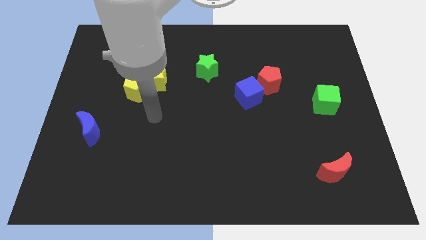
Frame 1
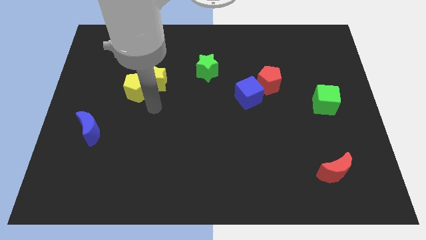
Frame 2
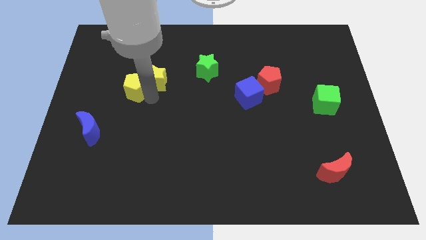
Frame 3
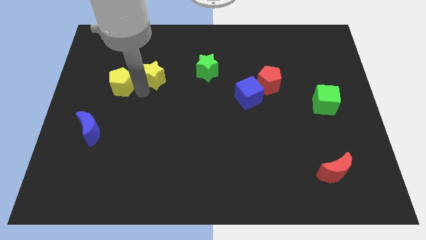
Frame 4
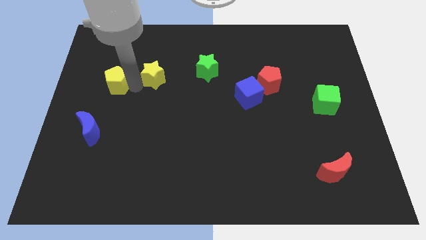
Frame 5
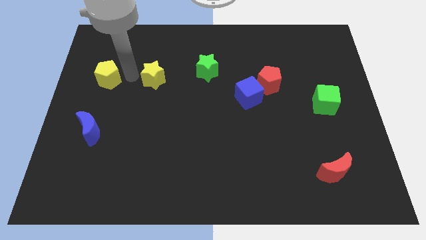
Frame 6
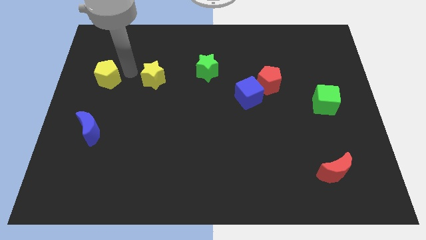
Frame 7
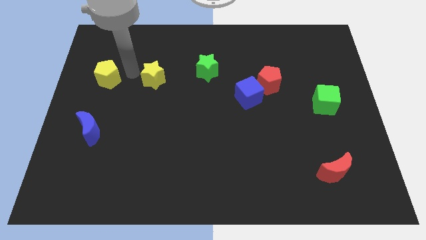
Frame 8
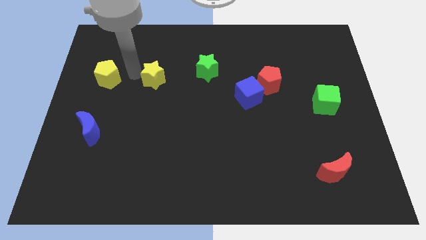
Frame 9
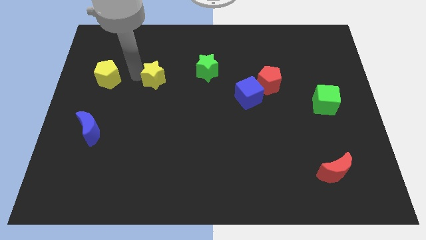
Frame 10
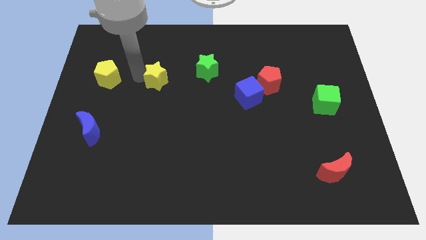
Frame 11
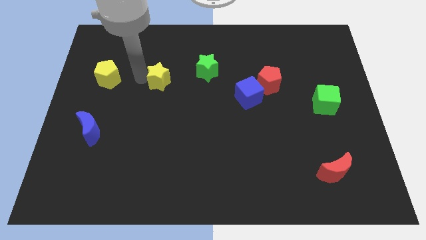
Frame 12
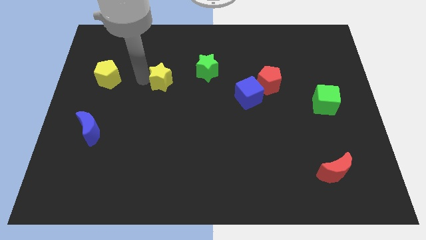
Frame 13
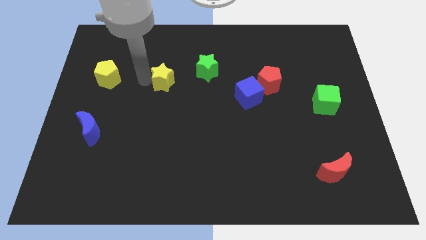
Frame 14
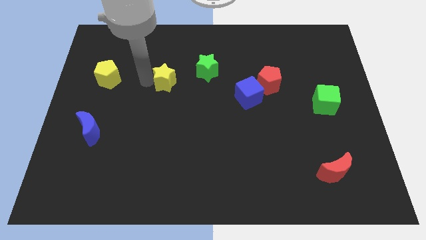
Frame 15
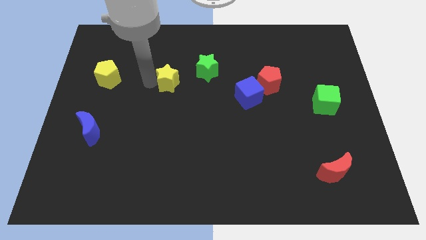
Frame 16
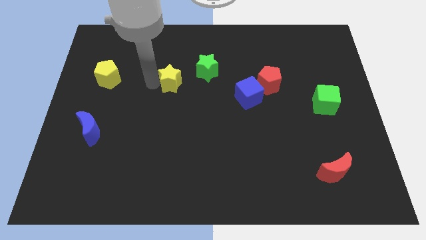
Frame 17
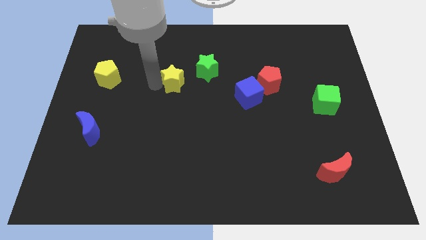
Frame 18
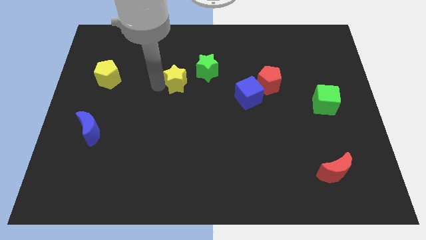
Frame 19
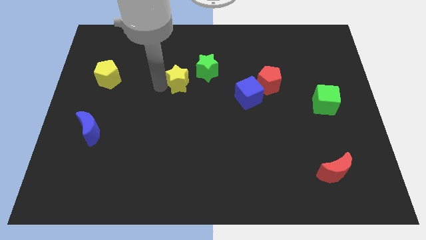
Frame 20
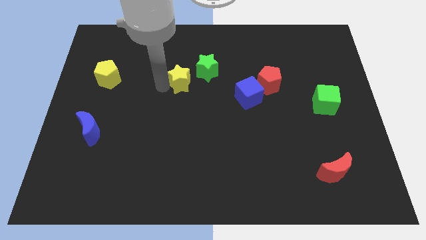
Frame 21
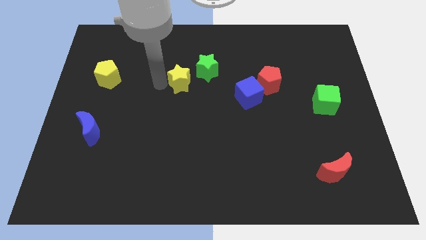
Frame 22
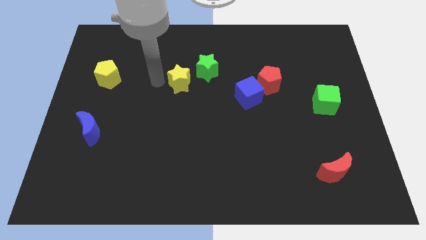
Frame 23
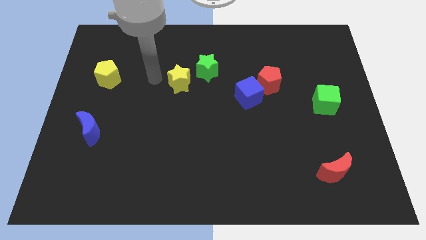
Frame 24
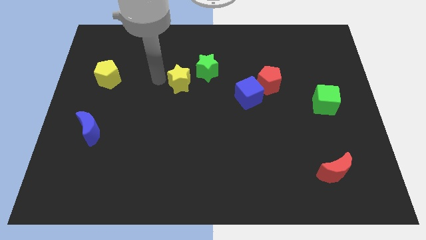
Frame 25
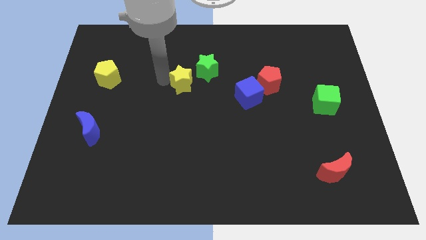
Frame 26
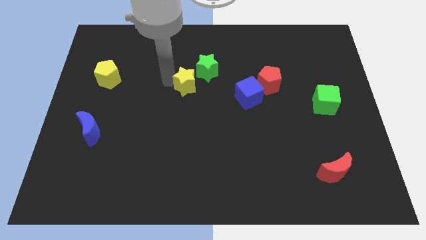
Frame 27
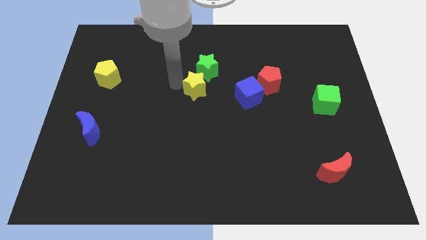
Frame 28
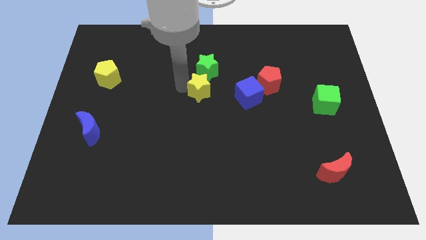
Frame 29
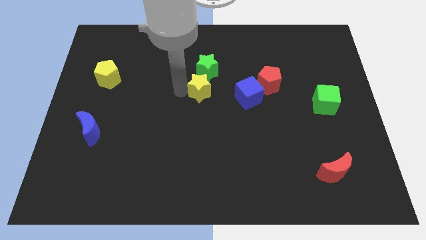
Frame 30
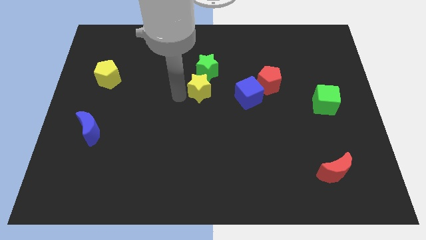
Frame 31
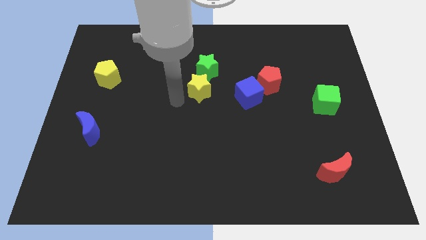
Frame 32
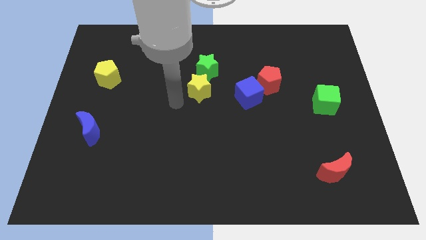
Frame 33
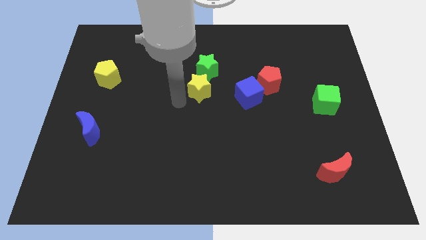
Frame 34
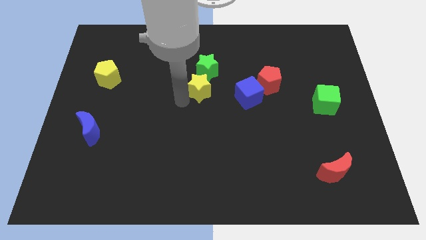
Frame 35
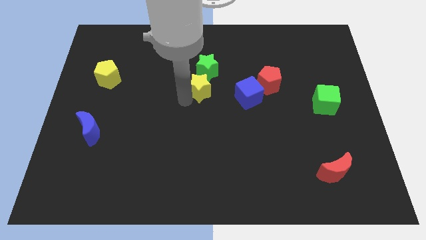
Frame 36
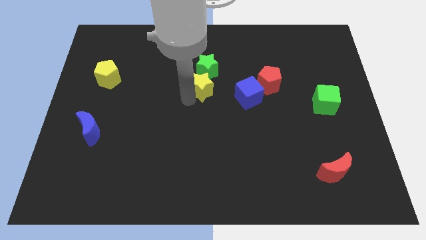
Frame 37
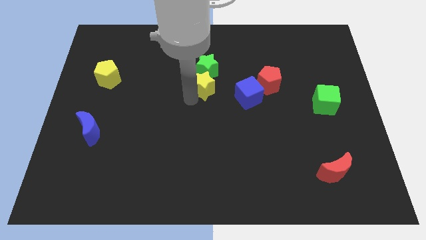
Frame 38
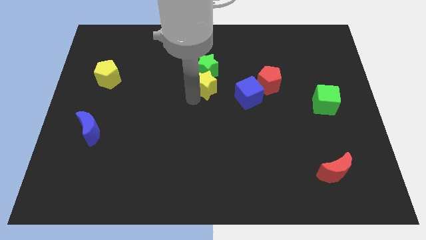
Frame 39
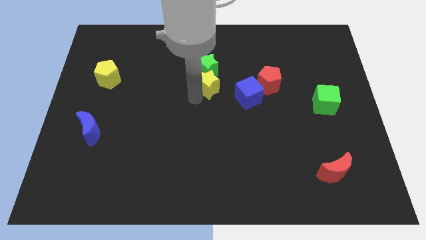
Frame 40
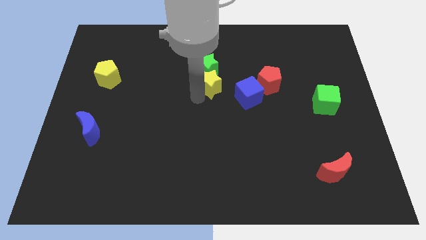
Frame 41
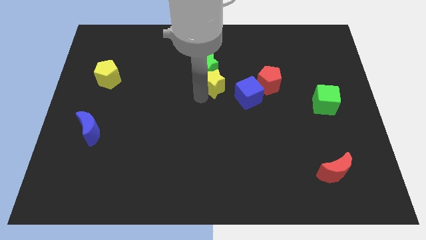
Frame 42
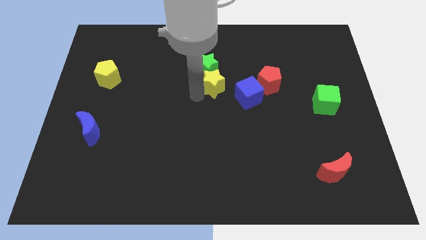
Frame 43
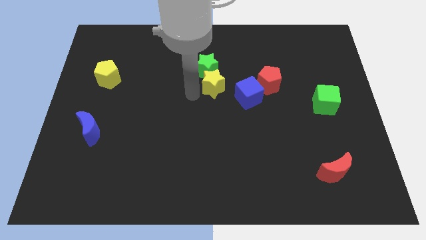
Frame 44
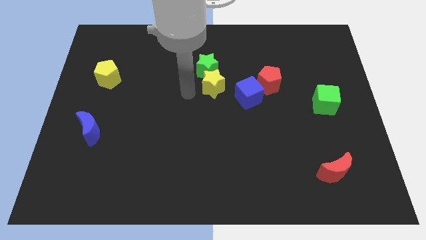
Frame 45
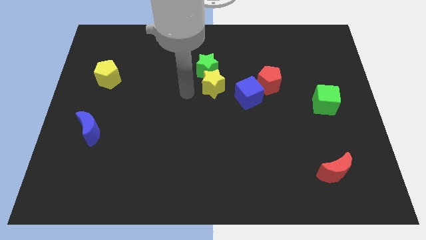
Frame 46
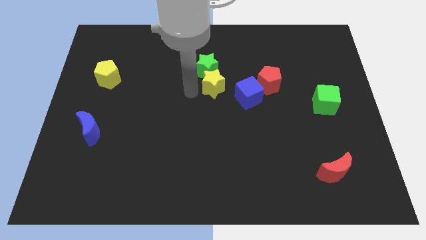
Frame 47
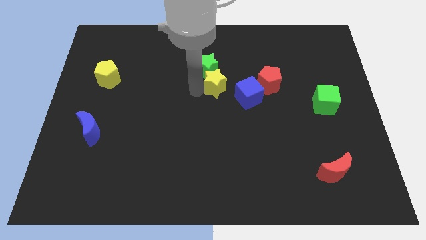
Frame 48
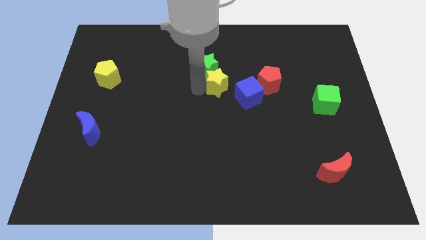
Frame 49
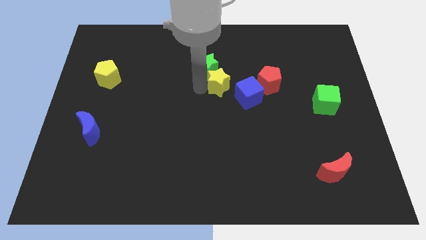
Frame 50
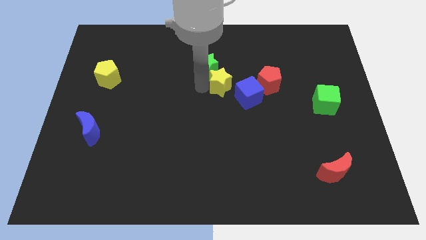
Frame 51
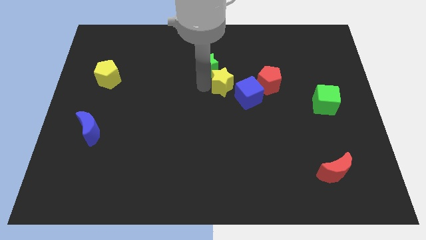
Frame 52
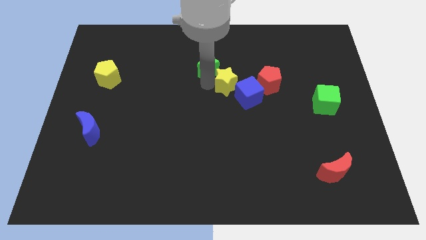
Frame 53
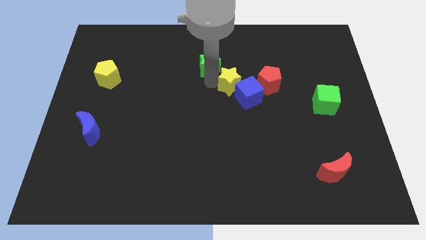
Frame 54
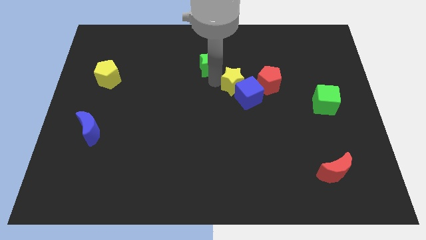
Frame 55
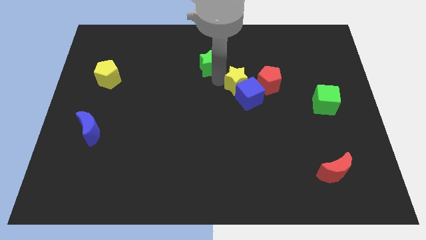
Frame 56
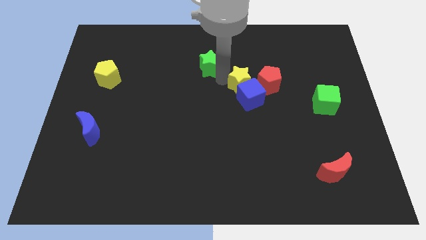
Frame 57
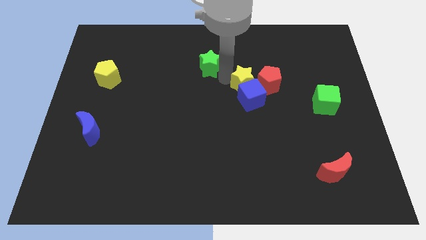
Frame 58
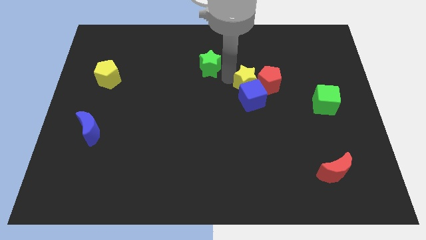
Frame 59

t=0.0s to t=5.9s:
put the yellow star to the red pentagon

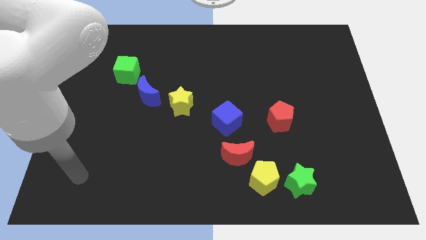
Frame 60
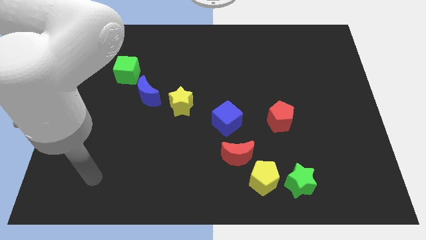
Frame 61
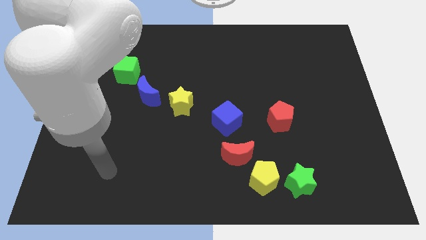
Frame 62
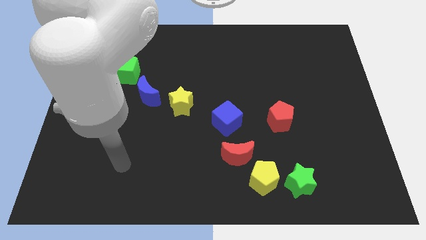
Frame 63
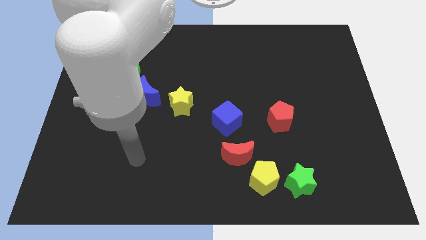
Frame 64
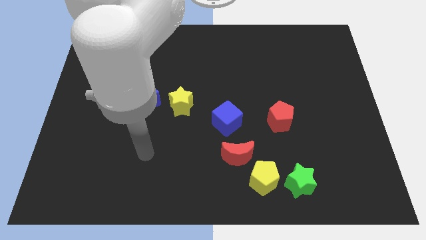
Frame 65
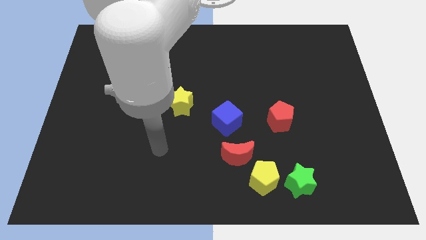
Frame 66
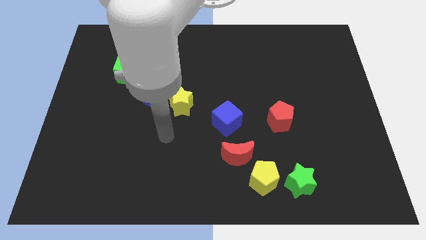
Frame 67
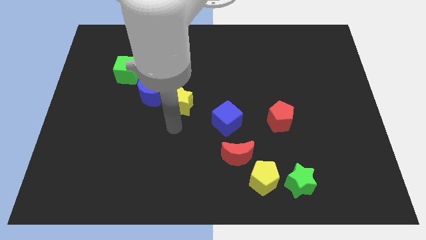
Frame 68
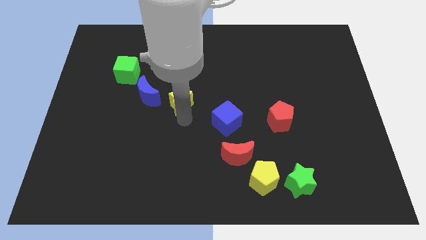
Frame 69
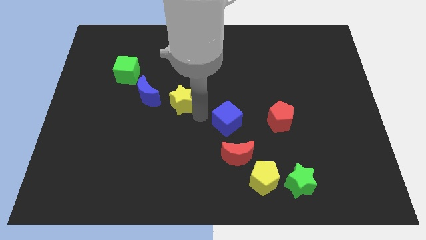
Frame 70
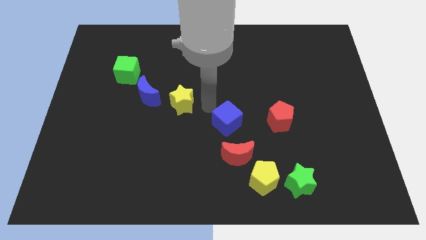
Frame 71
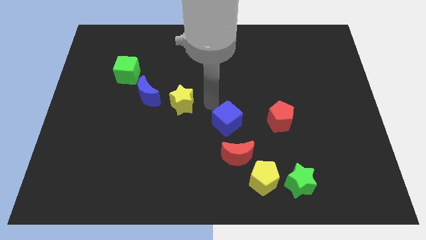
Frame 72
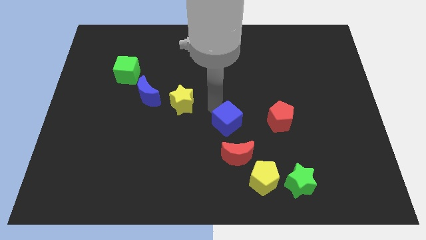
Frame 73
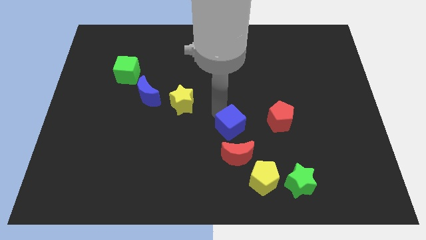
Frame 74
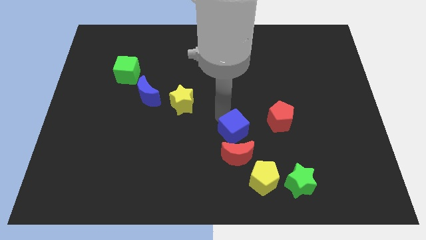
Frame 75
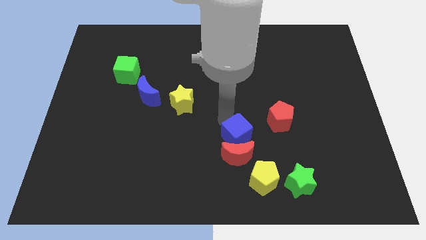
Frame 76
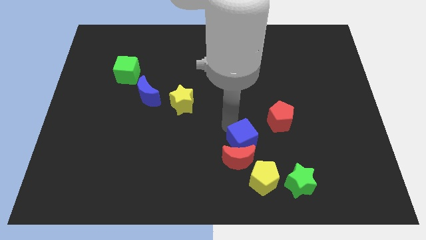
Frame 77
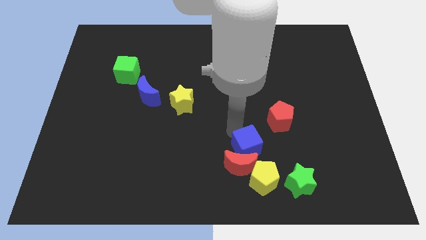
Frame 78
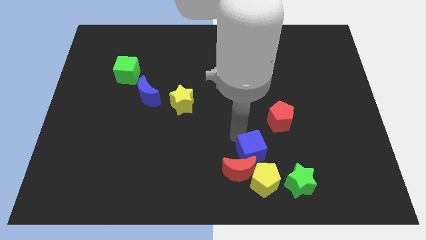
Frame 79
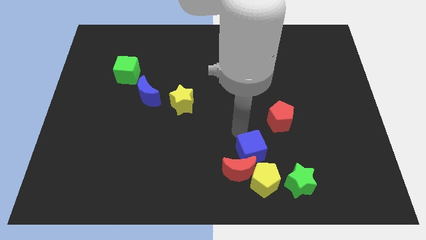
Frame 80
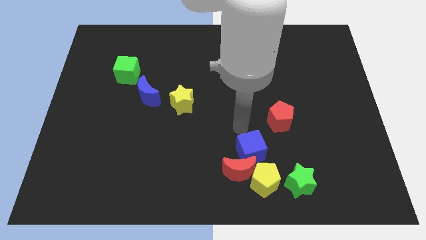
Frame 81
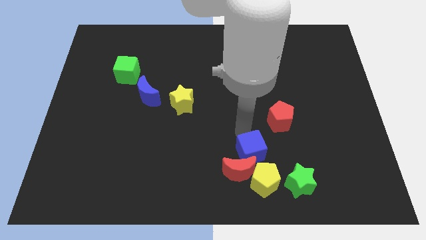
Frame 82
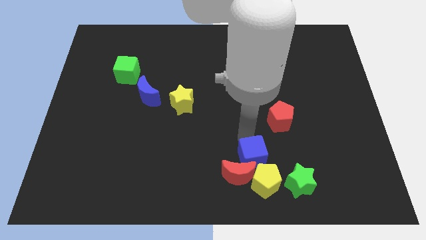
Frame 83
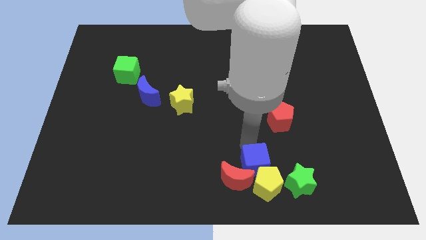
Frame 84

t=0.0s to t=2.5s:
put the blue cube next to the yellow pentagon
